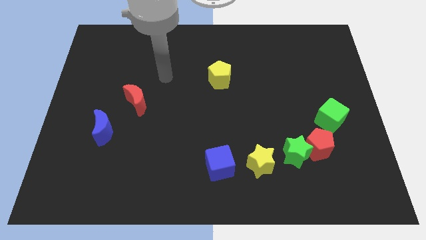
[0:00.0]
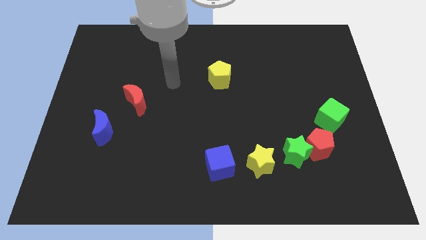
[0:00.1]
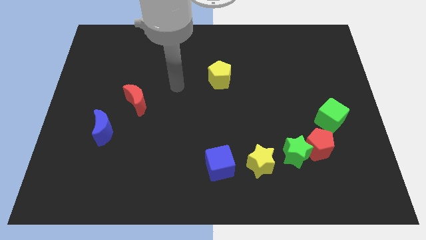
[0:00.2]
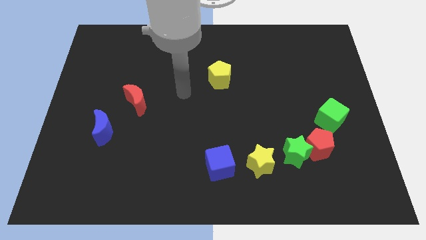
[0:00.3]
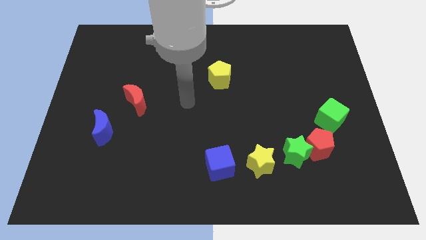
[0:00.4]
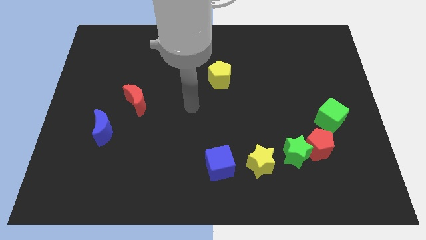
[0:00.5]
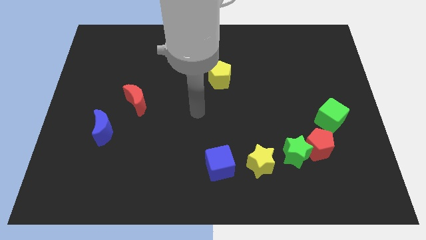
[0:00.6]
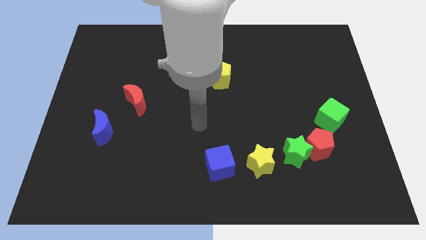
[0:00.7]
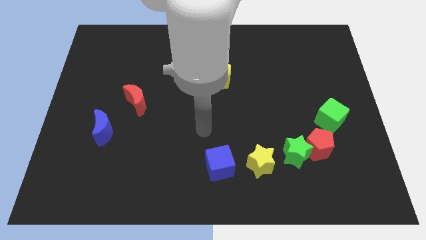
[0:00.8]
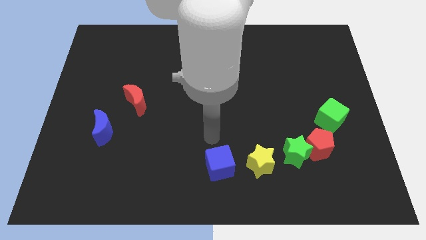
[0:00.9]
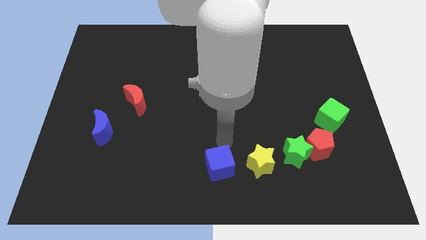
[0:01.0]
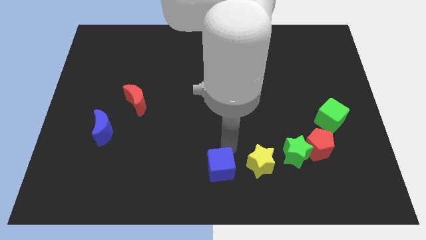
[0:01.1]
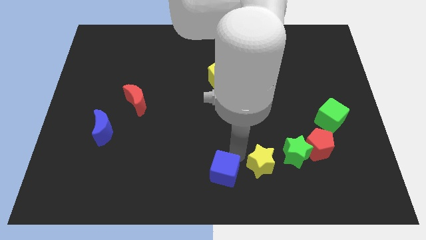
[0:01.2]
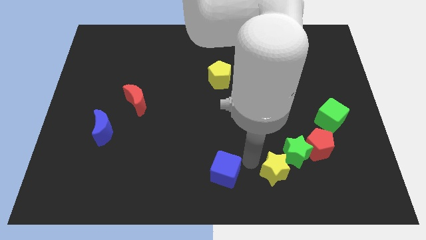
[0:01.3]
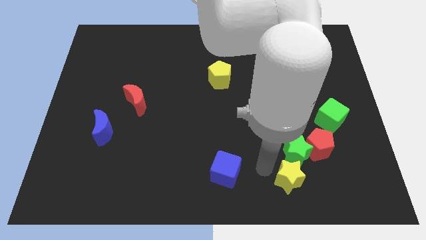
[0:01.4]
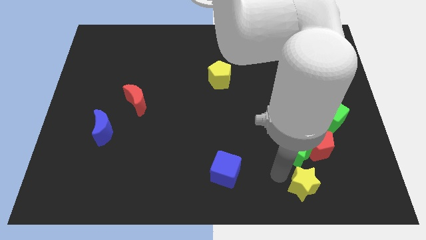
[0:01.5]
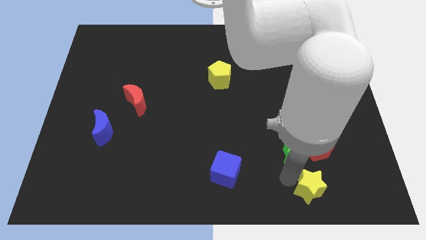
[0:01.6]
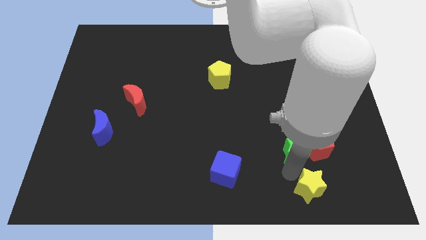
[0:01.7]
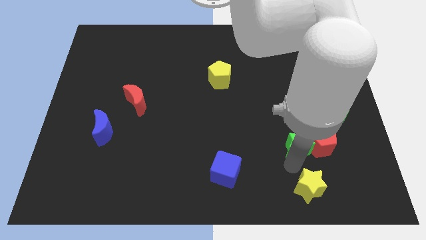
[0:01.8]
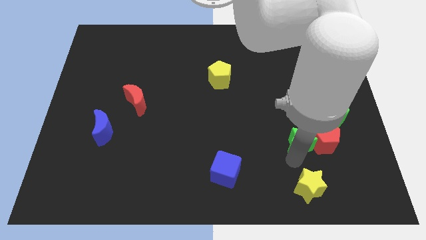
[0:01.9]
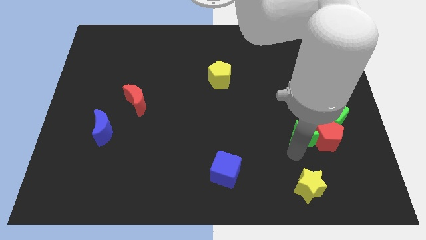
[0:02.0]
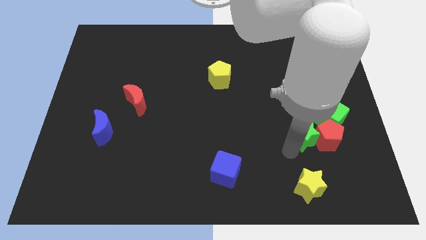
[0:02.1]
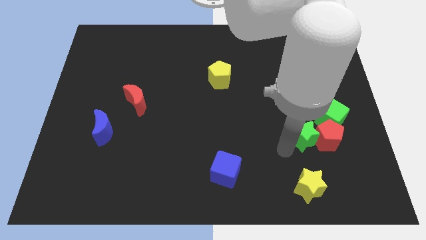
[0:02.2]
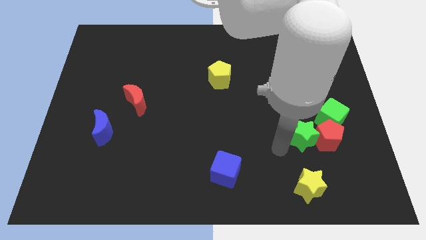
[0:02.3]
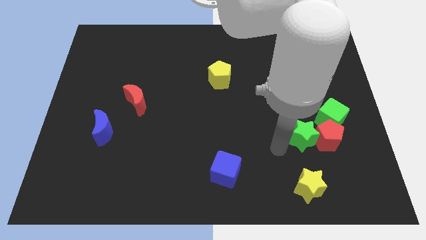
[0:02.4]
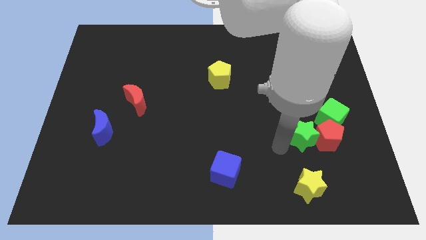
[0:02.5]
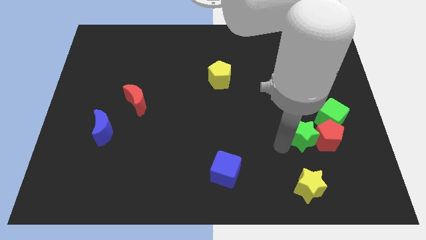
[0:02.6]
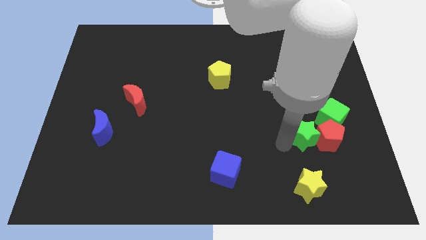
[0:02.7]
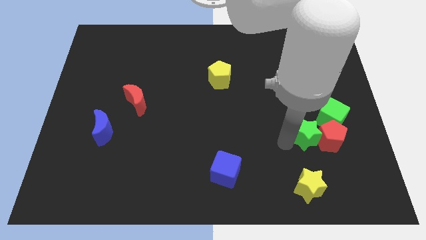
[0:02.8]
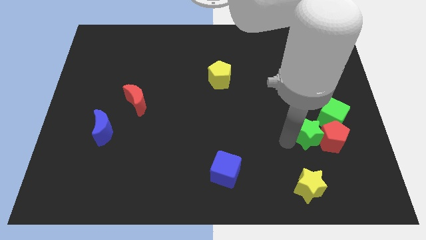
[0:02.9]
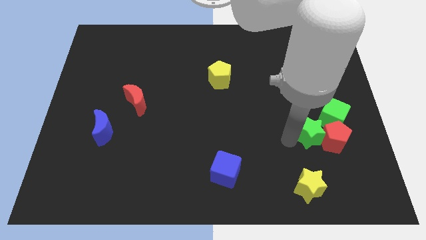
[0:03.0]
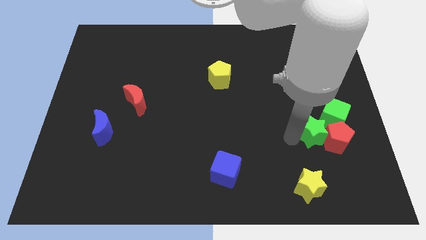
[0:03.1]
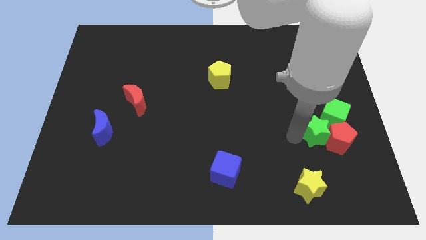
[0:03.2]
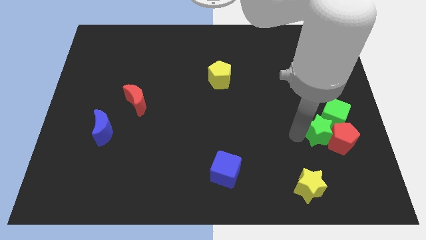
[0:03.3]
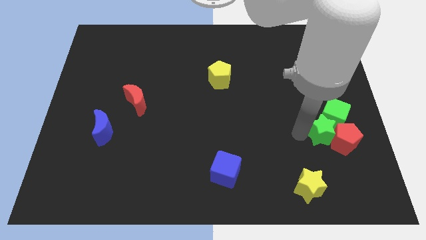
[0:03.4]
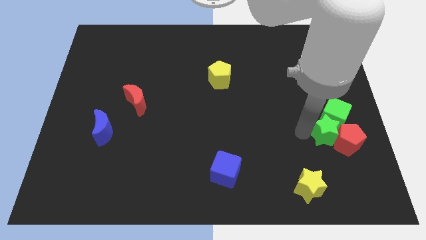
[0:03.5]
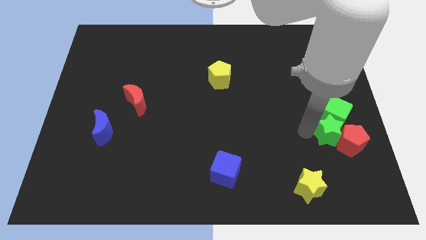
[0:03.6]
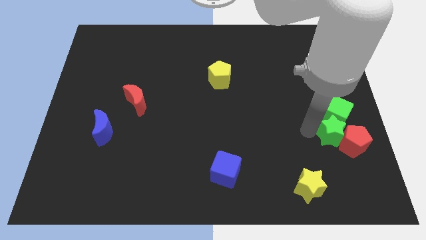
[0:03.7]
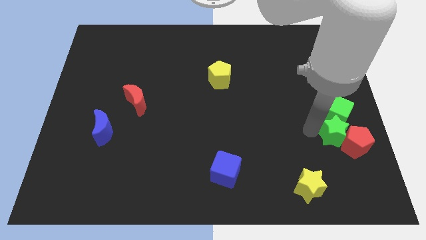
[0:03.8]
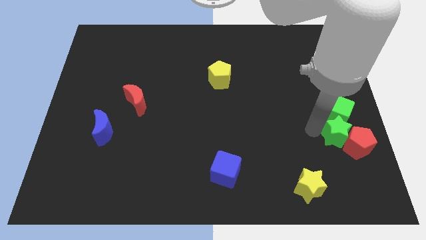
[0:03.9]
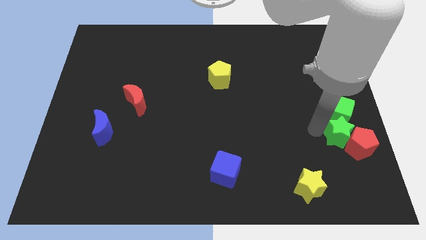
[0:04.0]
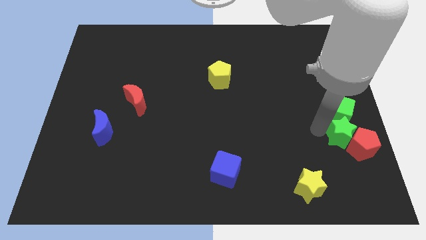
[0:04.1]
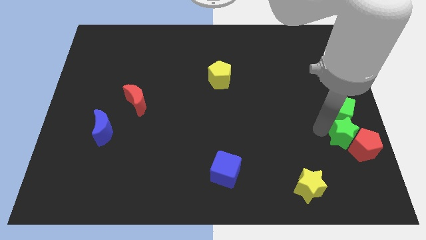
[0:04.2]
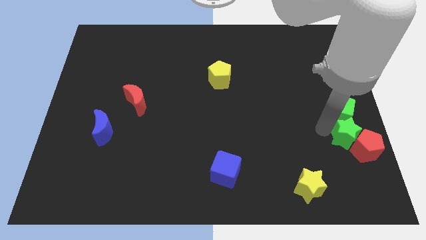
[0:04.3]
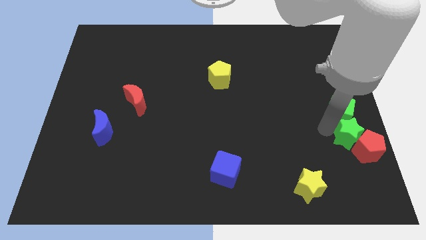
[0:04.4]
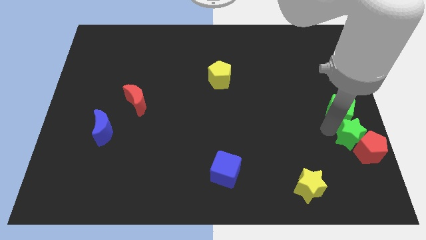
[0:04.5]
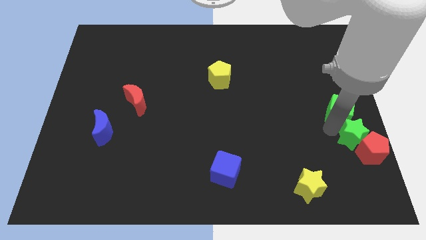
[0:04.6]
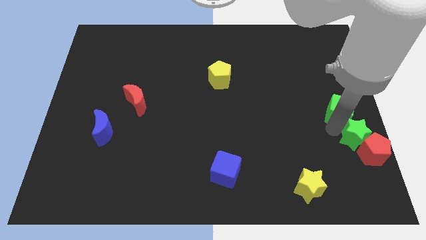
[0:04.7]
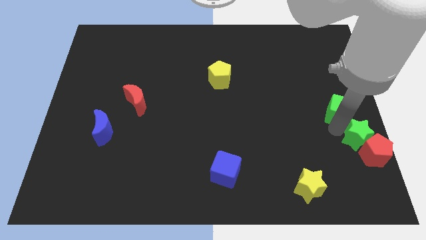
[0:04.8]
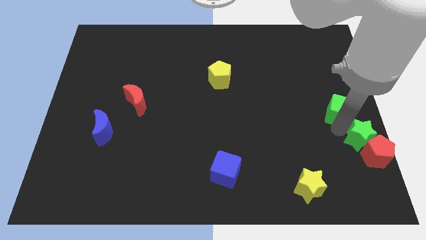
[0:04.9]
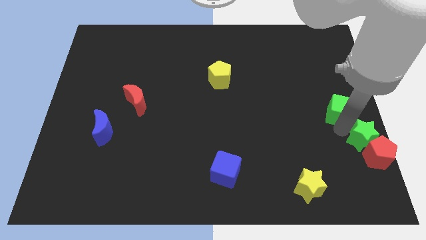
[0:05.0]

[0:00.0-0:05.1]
separate the green star from the red pentagon and yellow star

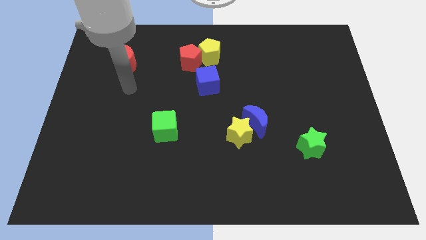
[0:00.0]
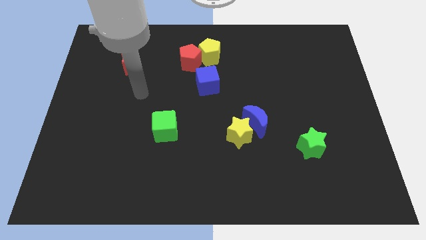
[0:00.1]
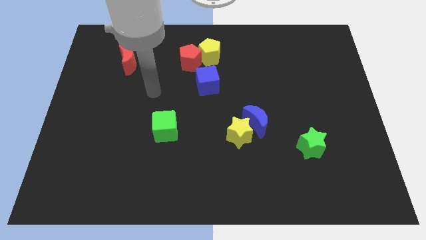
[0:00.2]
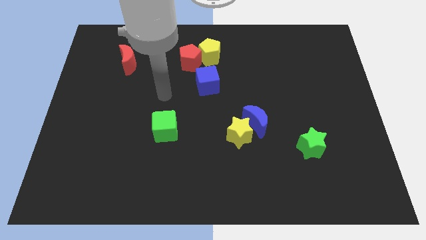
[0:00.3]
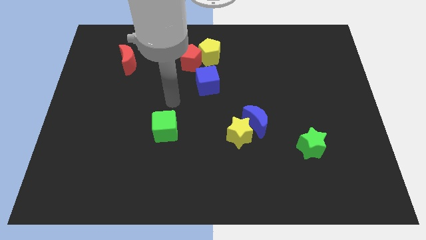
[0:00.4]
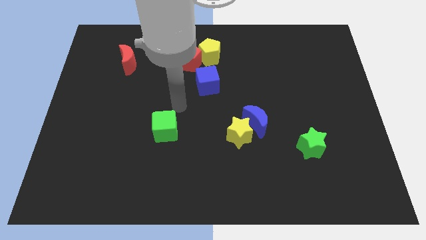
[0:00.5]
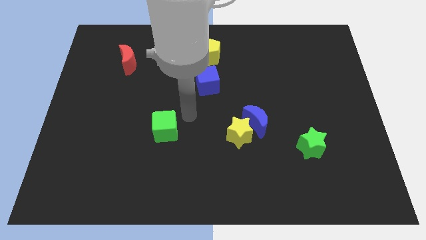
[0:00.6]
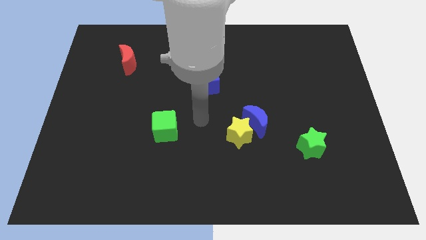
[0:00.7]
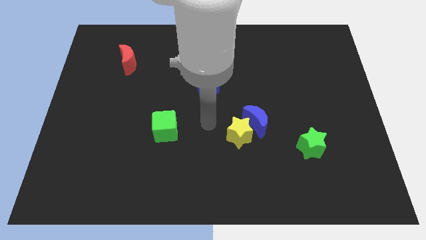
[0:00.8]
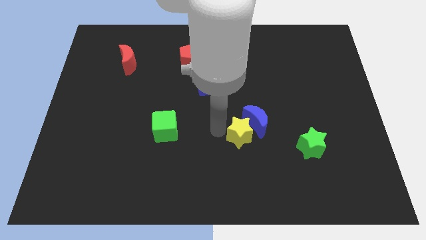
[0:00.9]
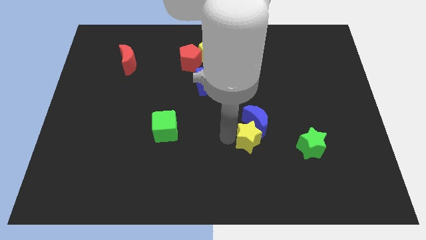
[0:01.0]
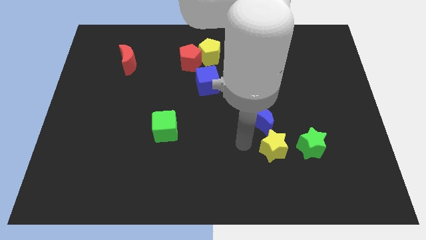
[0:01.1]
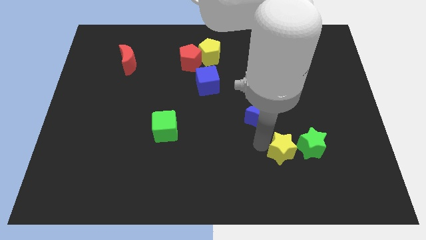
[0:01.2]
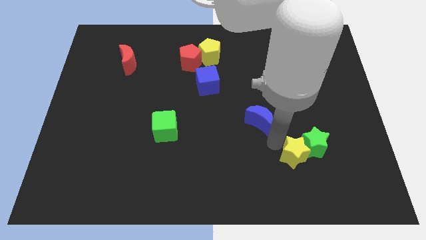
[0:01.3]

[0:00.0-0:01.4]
move the blue moon away from the yellow star

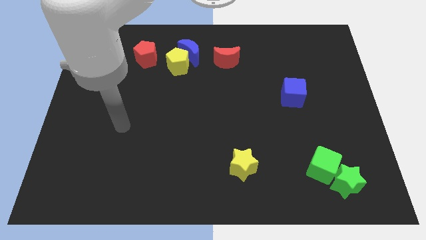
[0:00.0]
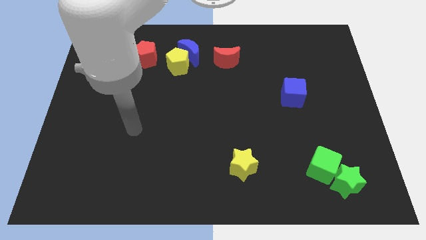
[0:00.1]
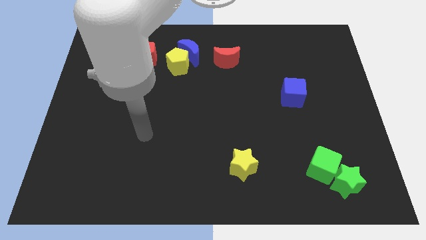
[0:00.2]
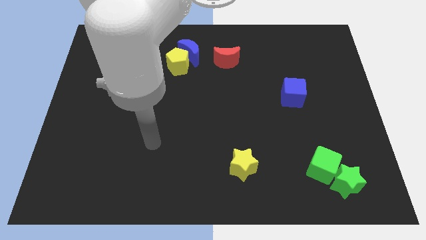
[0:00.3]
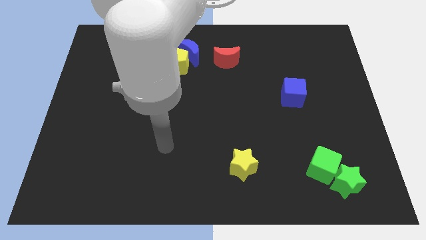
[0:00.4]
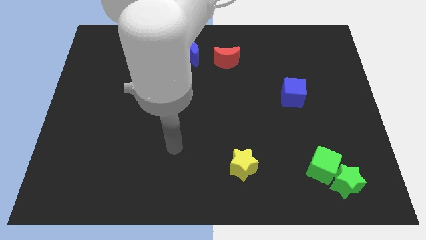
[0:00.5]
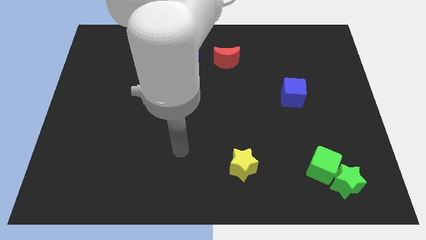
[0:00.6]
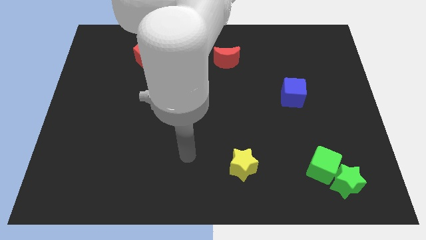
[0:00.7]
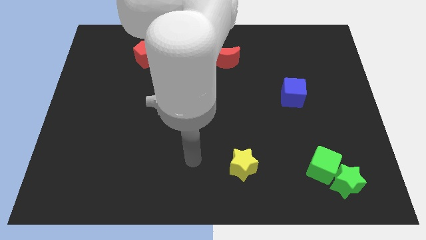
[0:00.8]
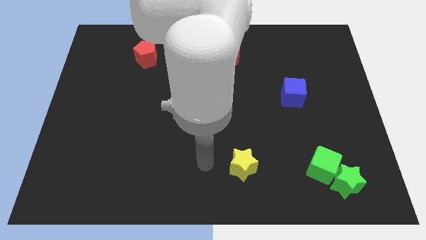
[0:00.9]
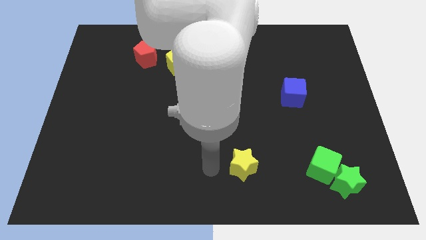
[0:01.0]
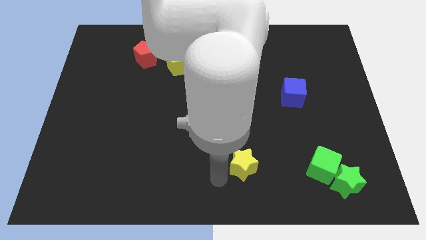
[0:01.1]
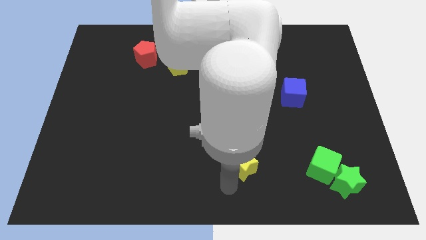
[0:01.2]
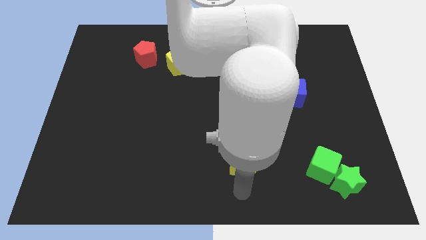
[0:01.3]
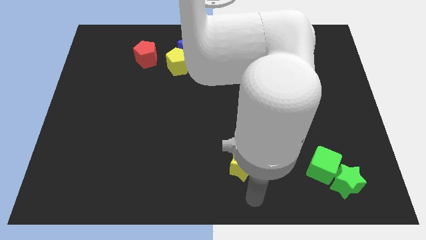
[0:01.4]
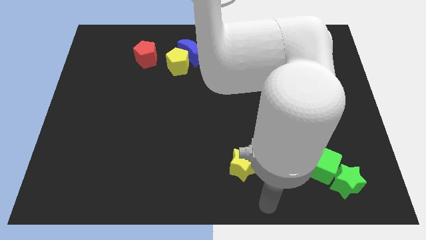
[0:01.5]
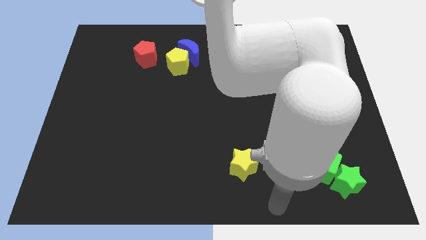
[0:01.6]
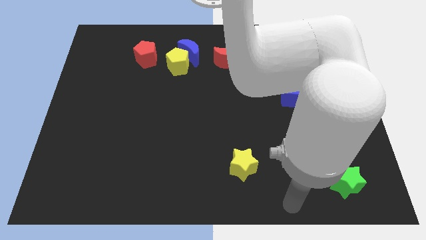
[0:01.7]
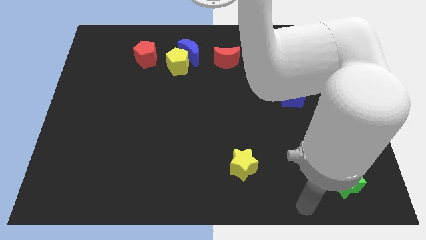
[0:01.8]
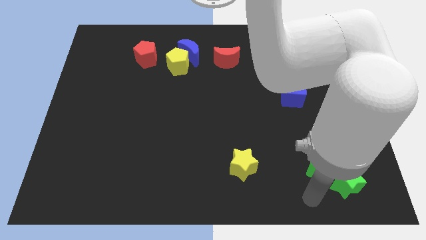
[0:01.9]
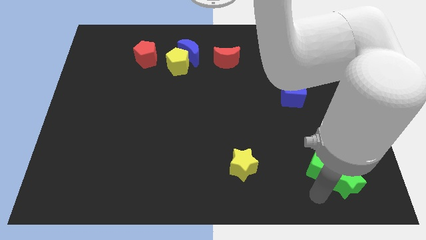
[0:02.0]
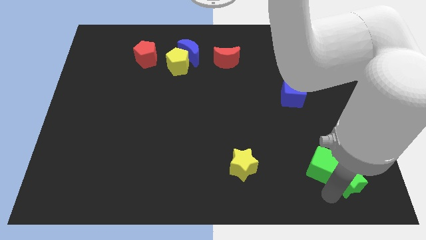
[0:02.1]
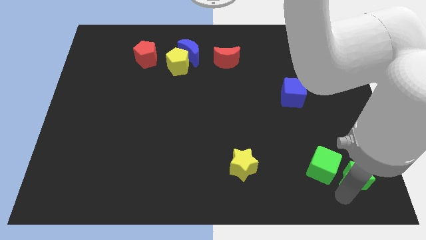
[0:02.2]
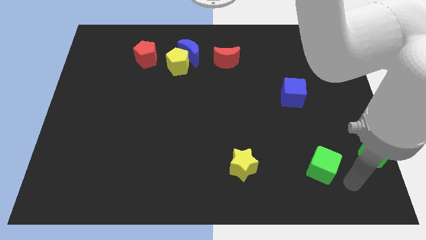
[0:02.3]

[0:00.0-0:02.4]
separate the green cube from the green star

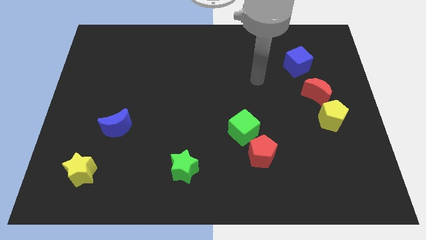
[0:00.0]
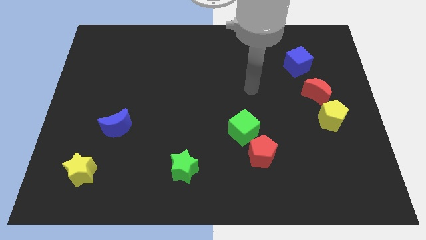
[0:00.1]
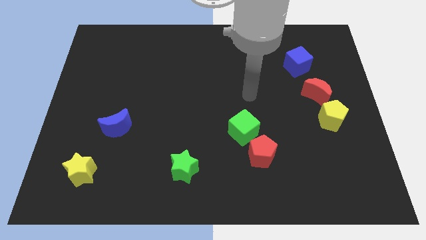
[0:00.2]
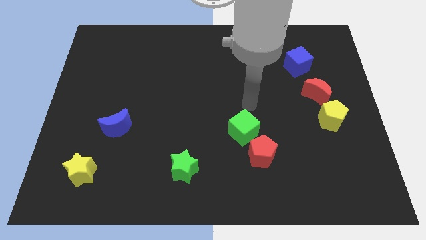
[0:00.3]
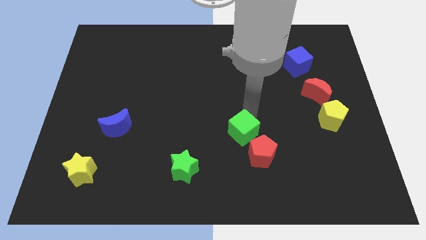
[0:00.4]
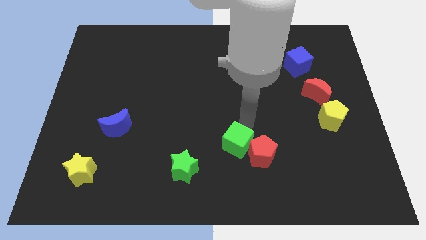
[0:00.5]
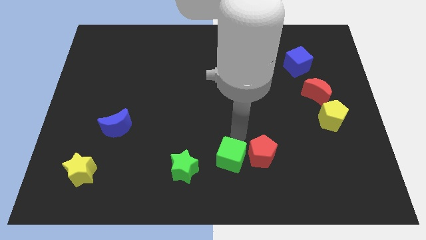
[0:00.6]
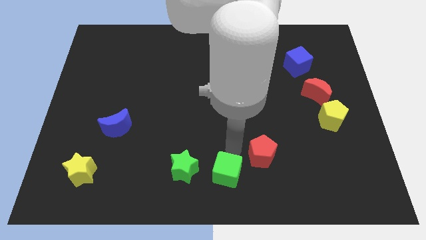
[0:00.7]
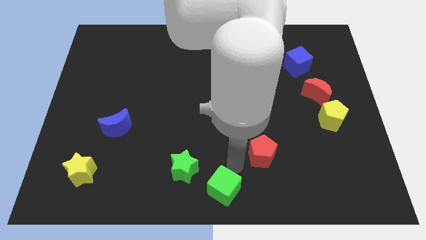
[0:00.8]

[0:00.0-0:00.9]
pull the red pentagon apart from the green cube
